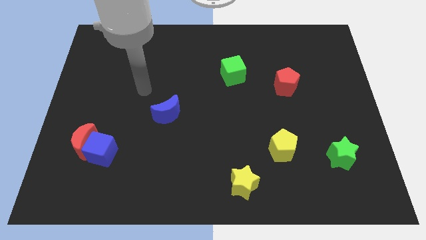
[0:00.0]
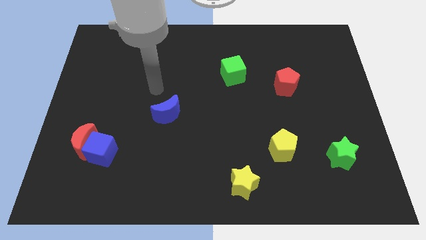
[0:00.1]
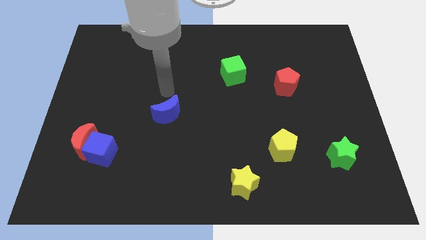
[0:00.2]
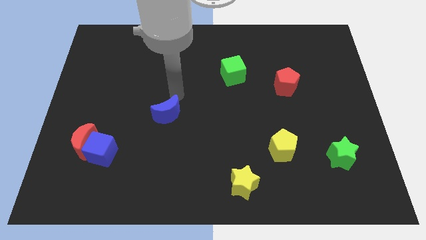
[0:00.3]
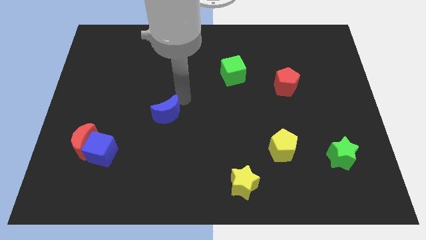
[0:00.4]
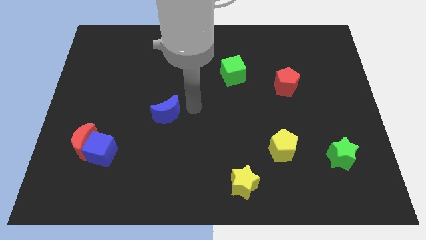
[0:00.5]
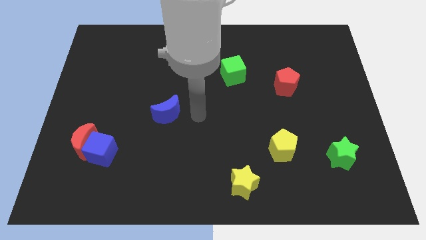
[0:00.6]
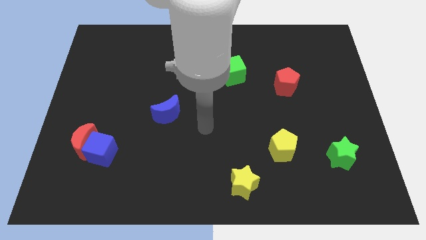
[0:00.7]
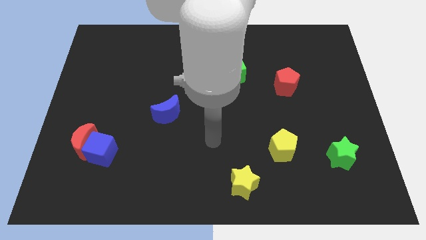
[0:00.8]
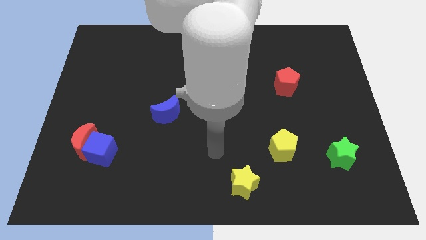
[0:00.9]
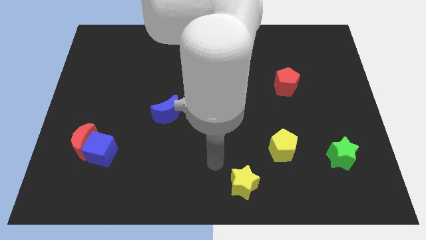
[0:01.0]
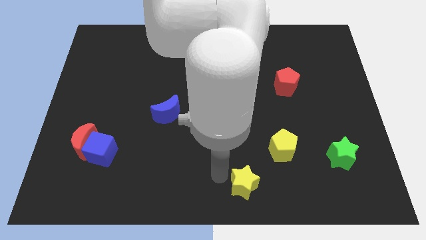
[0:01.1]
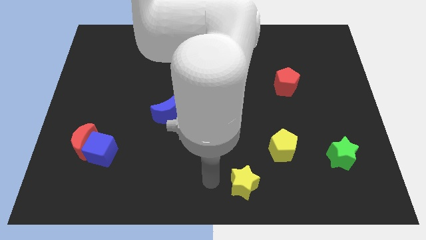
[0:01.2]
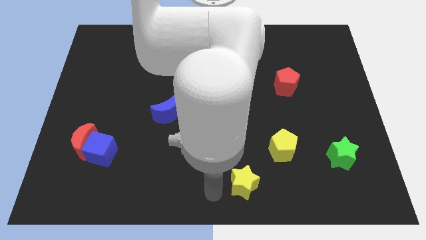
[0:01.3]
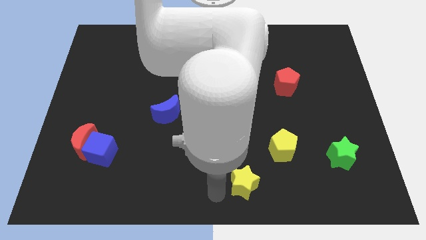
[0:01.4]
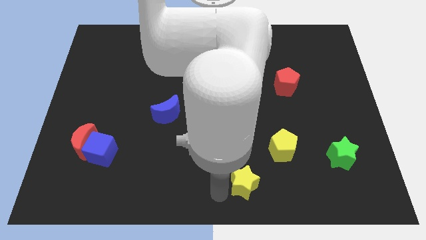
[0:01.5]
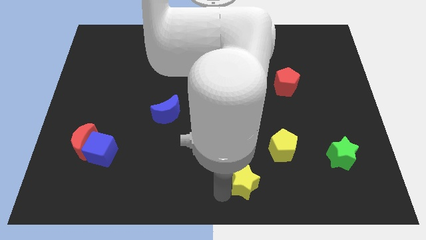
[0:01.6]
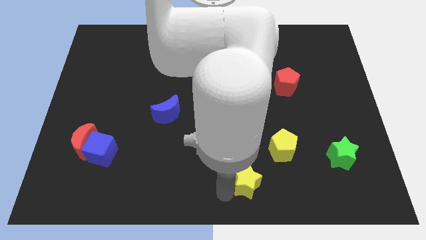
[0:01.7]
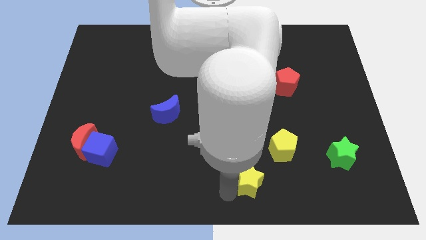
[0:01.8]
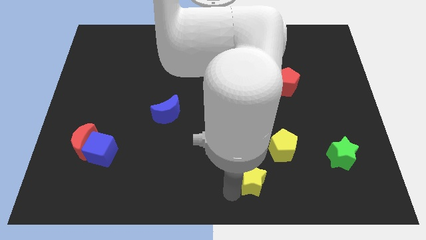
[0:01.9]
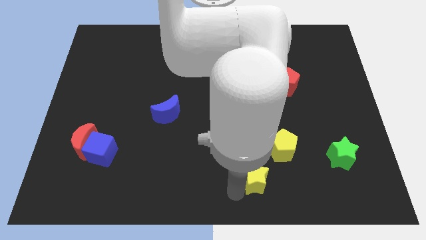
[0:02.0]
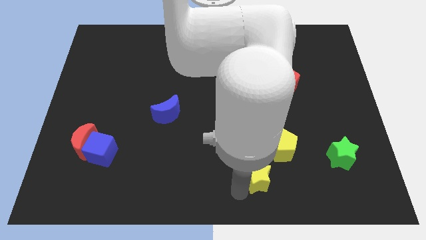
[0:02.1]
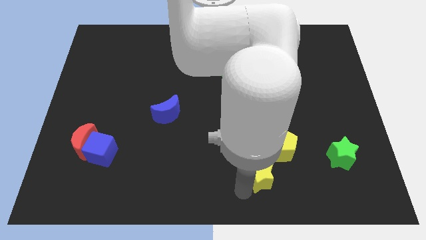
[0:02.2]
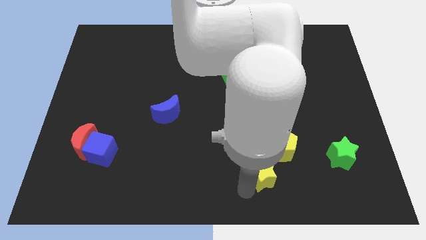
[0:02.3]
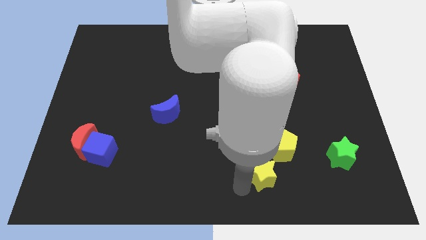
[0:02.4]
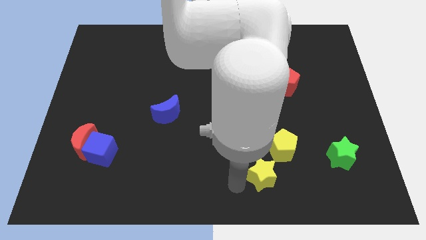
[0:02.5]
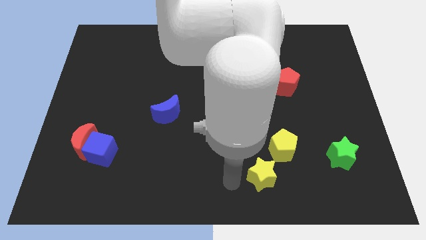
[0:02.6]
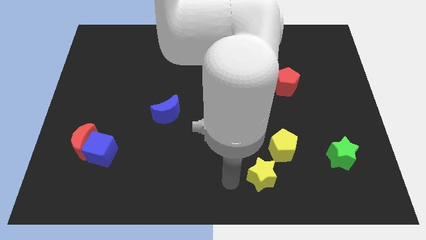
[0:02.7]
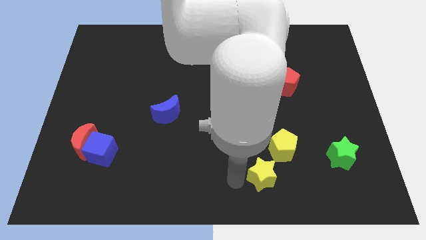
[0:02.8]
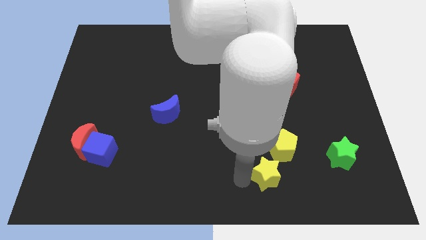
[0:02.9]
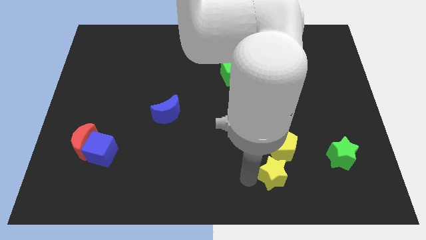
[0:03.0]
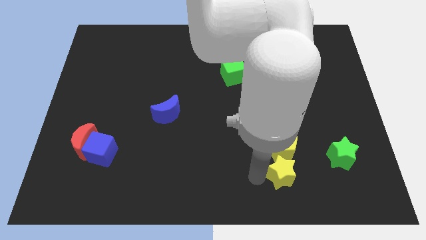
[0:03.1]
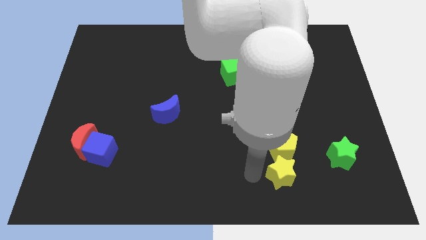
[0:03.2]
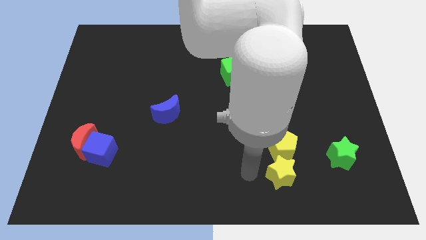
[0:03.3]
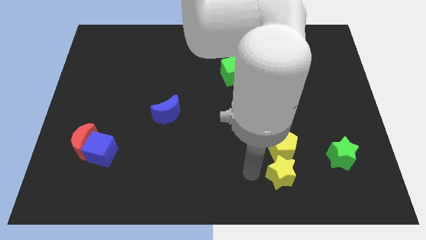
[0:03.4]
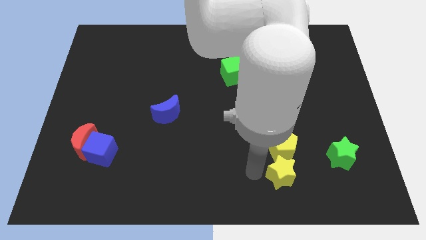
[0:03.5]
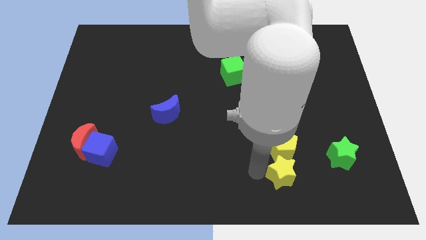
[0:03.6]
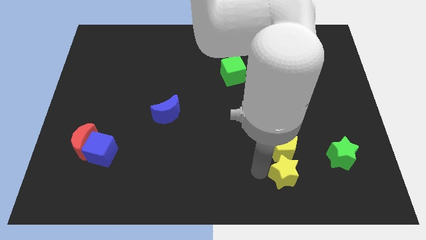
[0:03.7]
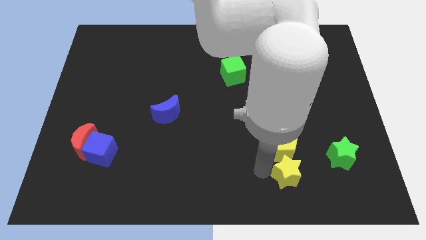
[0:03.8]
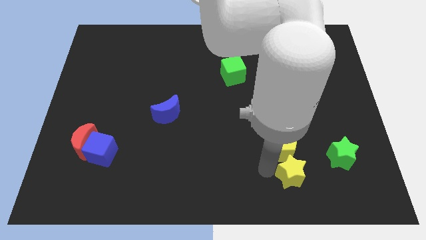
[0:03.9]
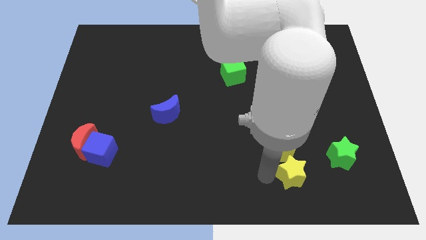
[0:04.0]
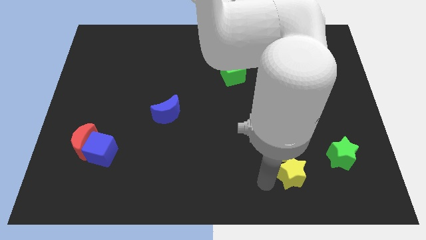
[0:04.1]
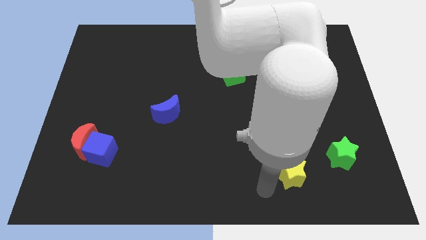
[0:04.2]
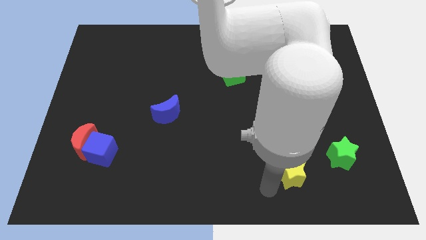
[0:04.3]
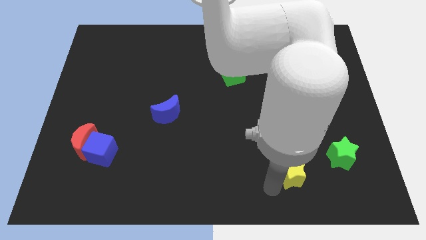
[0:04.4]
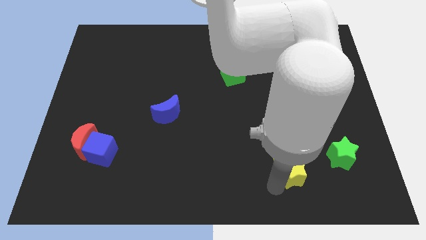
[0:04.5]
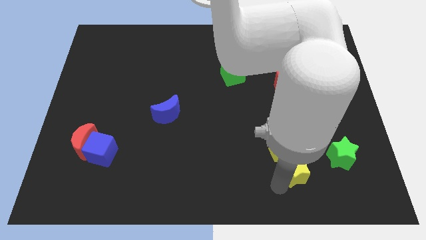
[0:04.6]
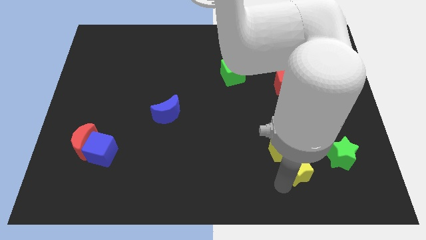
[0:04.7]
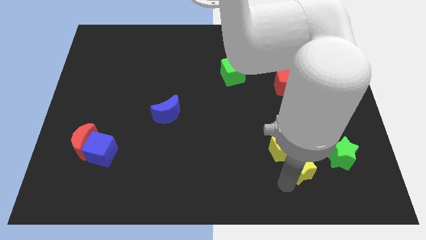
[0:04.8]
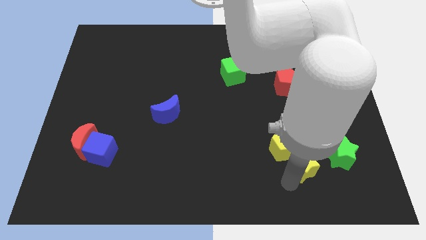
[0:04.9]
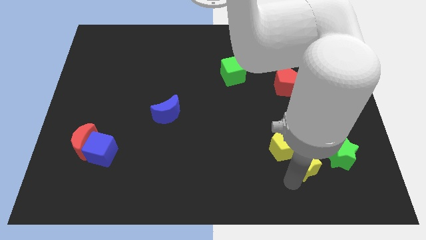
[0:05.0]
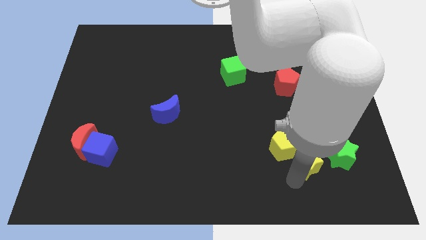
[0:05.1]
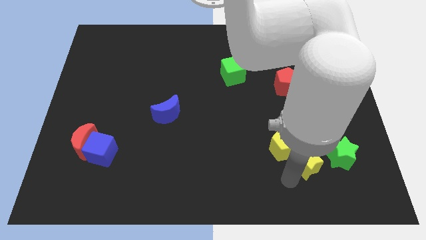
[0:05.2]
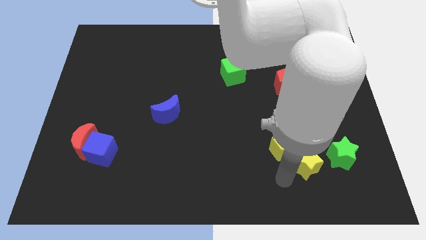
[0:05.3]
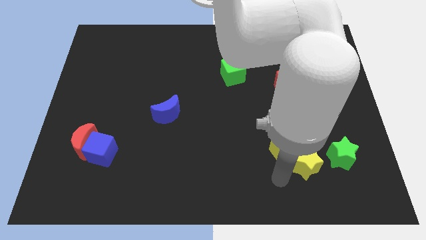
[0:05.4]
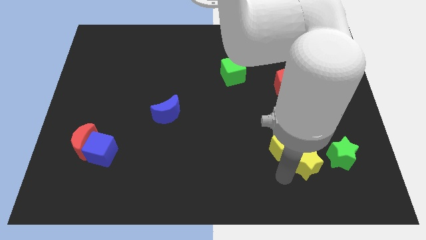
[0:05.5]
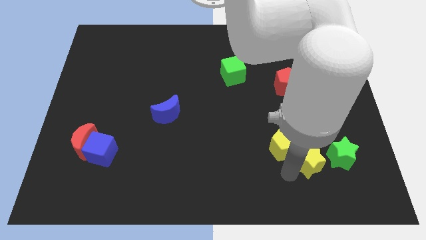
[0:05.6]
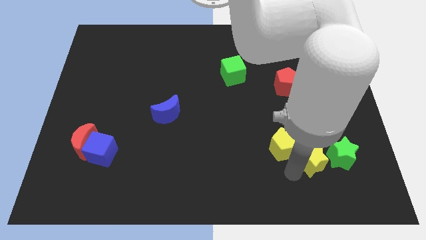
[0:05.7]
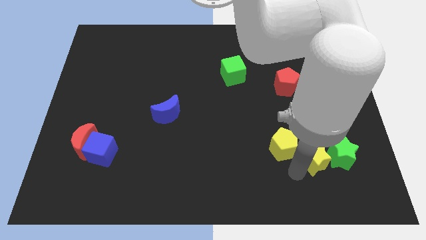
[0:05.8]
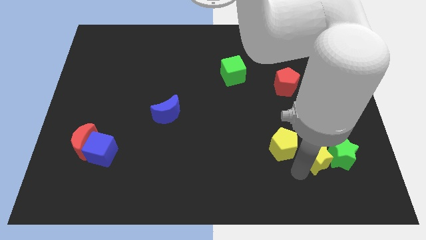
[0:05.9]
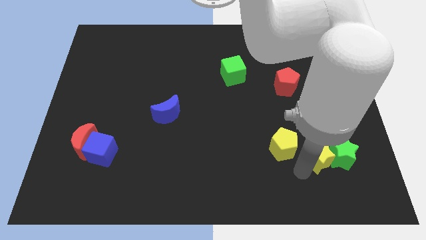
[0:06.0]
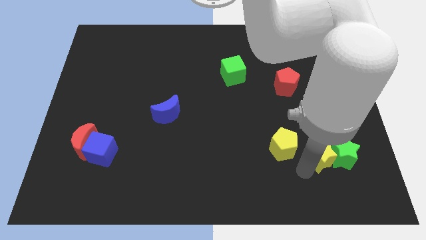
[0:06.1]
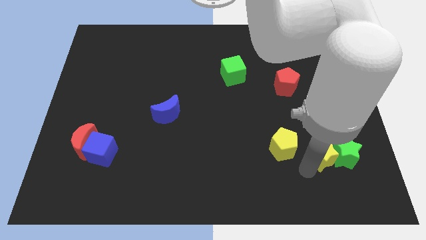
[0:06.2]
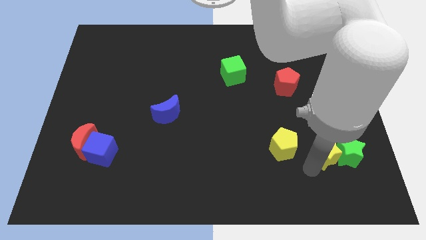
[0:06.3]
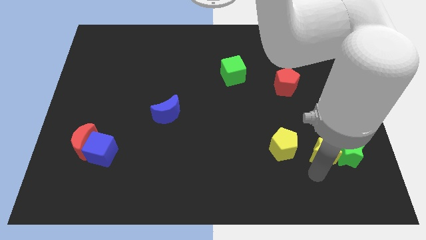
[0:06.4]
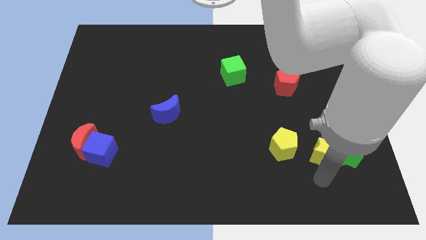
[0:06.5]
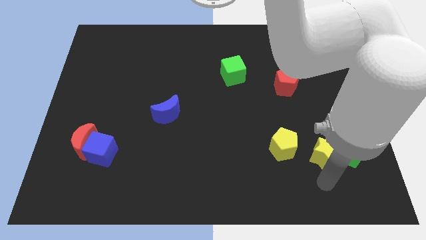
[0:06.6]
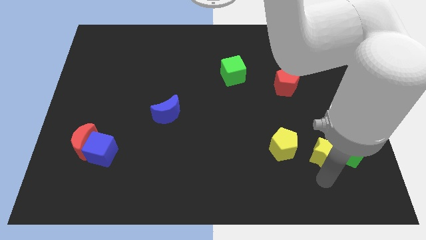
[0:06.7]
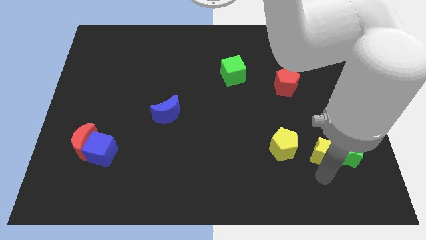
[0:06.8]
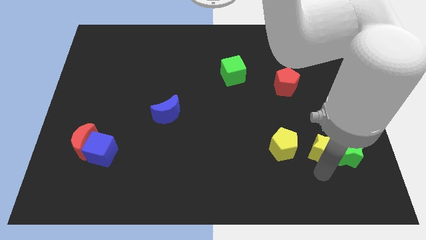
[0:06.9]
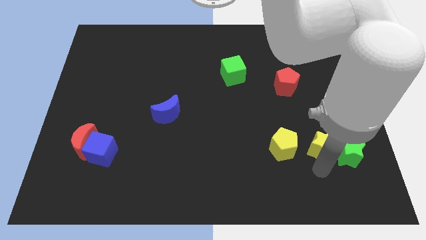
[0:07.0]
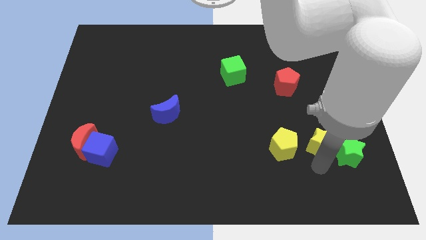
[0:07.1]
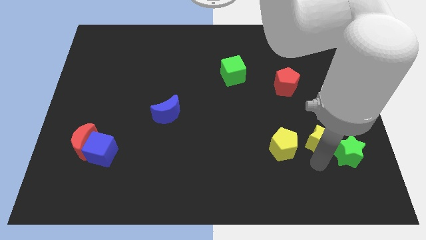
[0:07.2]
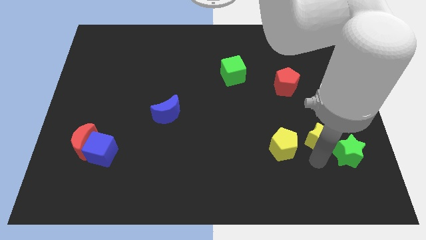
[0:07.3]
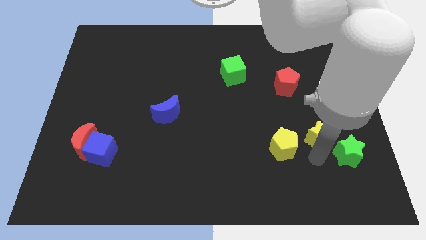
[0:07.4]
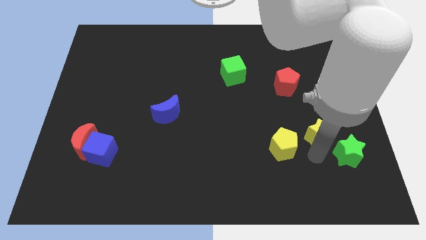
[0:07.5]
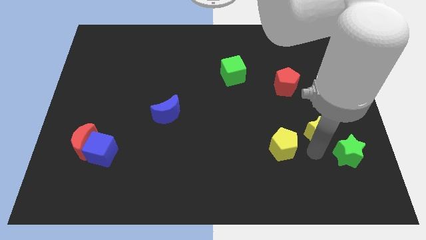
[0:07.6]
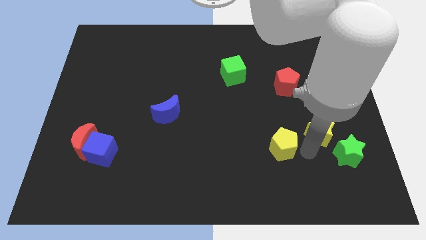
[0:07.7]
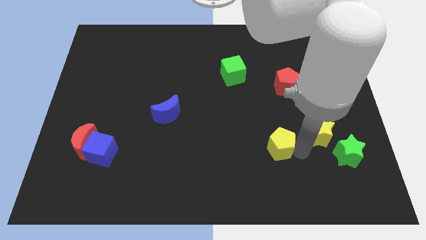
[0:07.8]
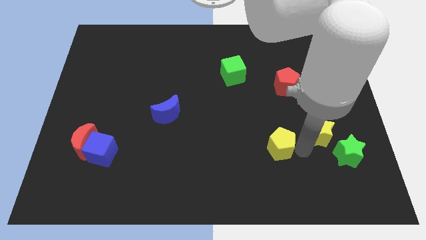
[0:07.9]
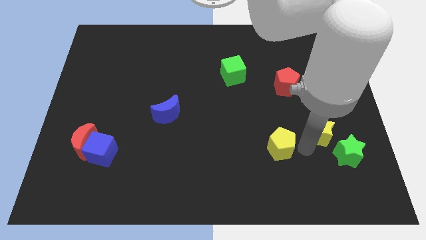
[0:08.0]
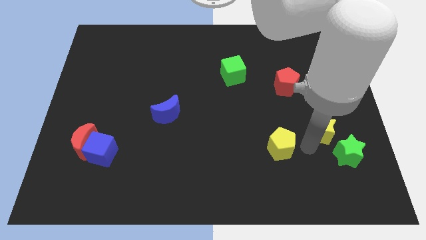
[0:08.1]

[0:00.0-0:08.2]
slide the yellow star to the top side of the green star
